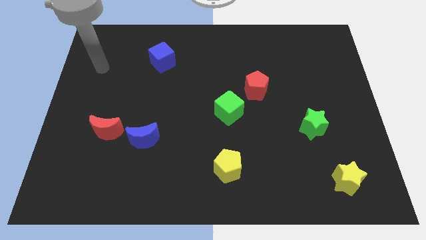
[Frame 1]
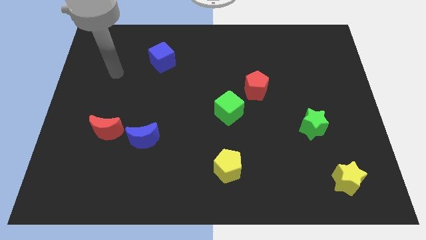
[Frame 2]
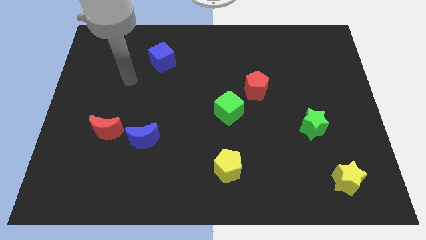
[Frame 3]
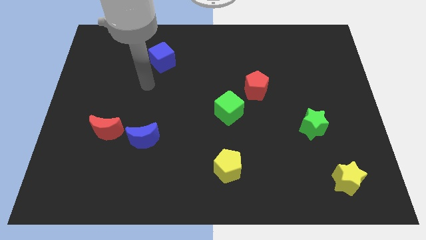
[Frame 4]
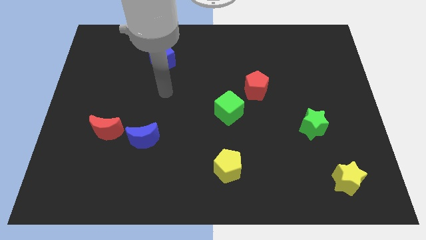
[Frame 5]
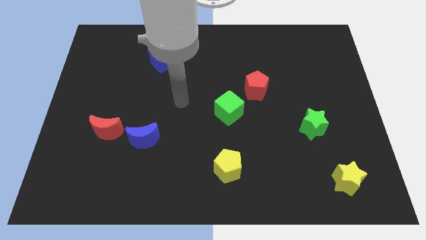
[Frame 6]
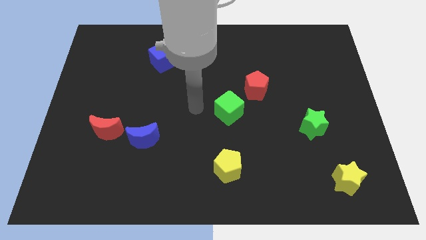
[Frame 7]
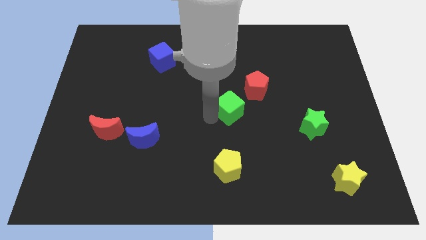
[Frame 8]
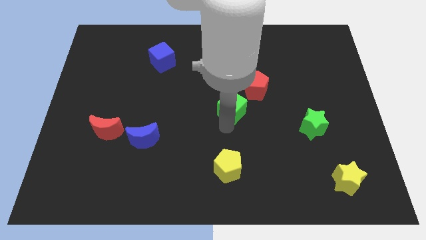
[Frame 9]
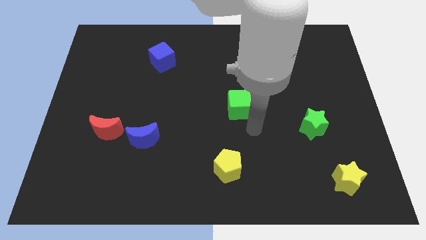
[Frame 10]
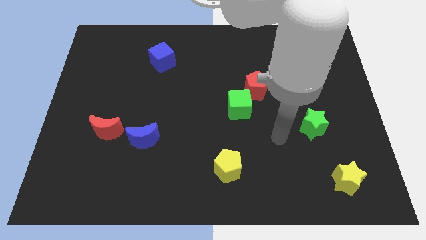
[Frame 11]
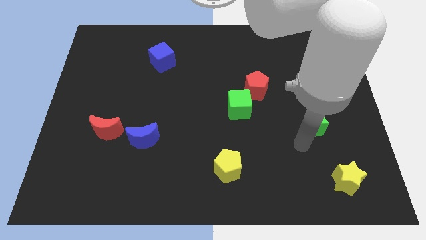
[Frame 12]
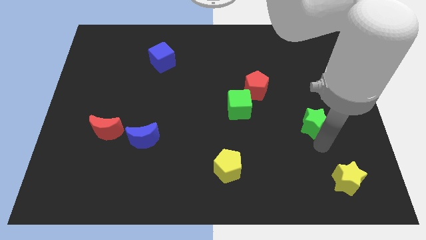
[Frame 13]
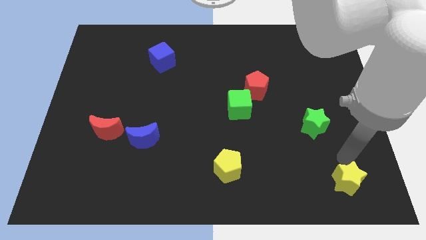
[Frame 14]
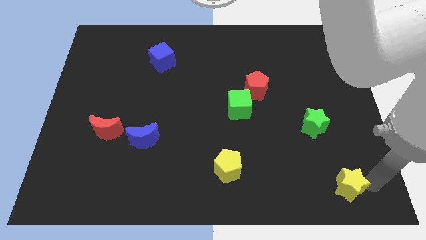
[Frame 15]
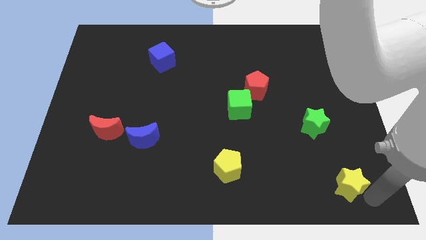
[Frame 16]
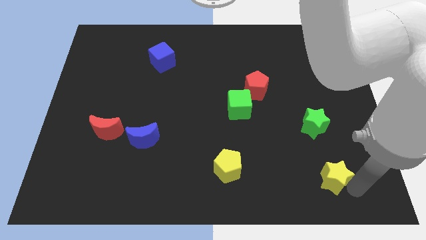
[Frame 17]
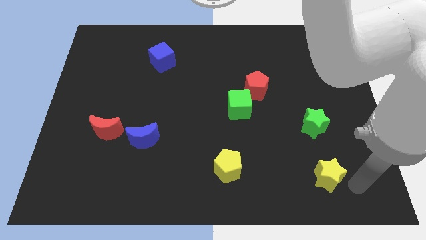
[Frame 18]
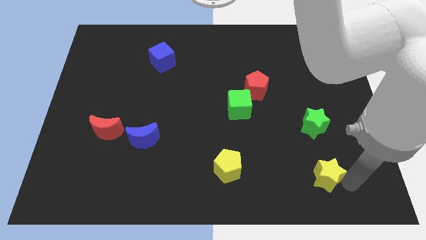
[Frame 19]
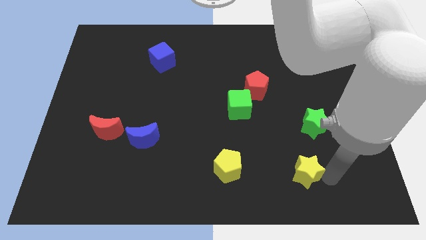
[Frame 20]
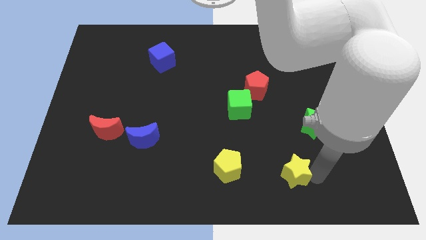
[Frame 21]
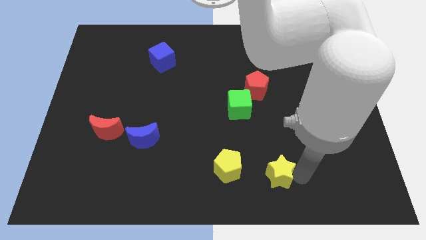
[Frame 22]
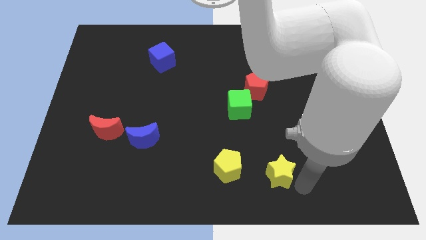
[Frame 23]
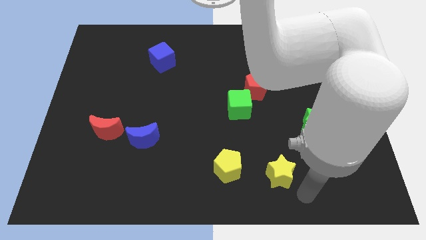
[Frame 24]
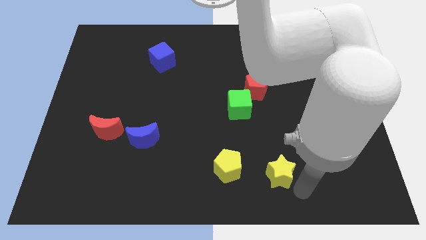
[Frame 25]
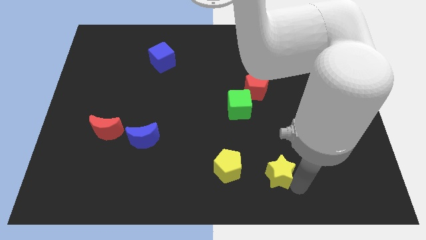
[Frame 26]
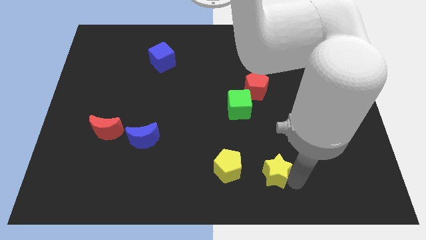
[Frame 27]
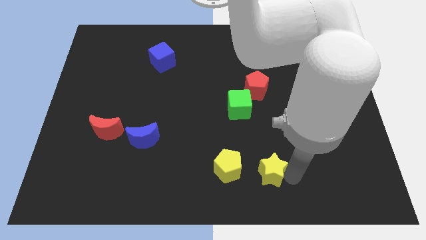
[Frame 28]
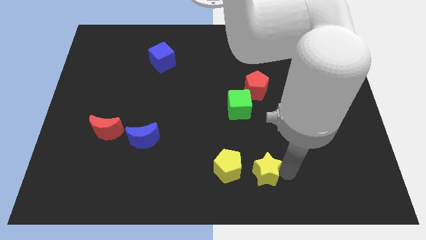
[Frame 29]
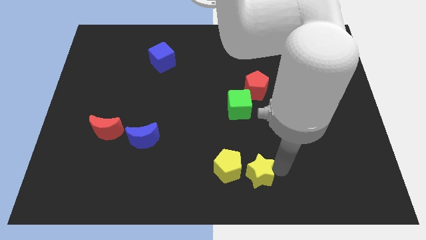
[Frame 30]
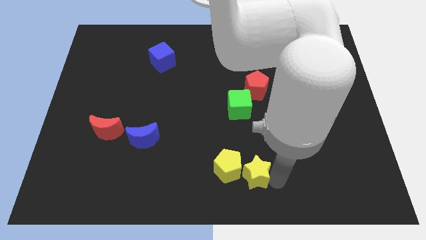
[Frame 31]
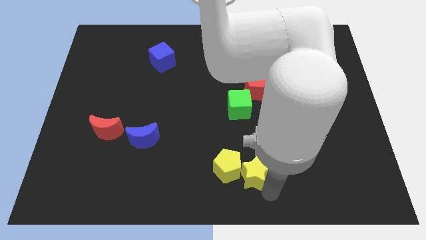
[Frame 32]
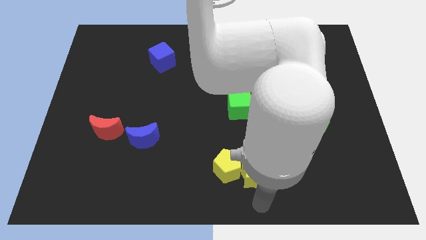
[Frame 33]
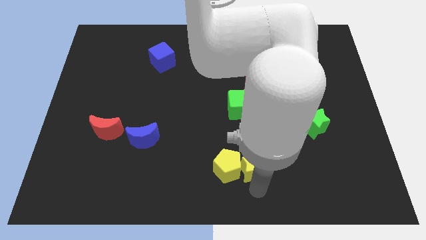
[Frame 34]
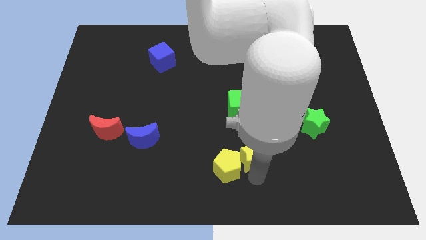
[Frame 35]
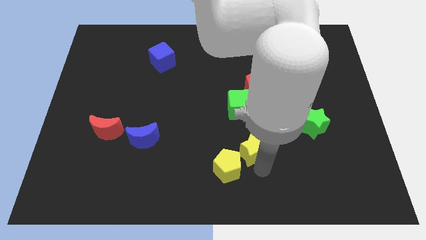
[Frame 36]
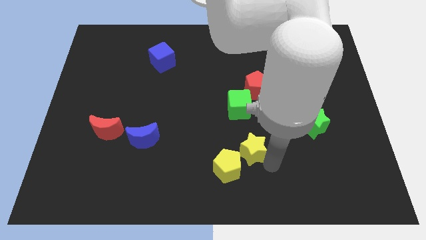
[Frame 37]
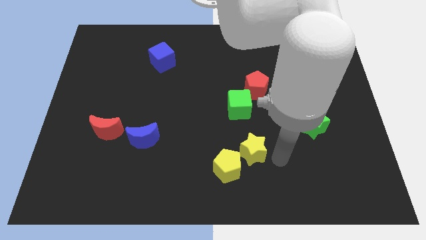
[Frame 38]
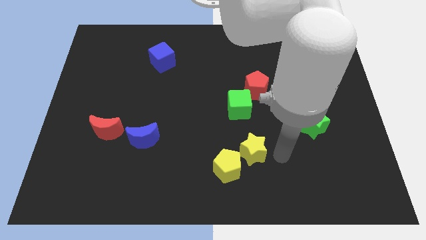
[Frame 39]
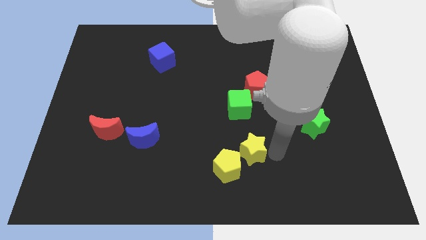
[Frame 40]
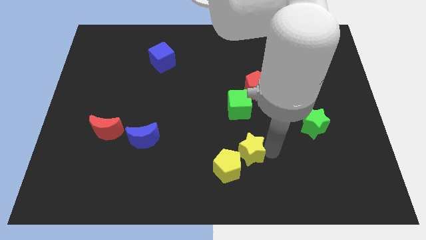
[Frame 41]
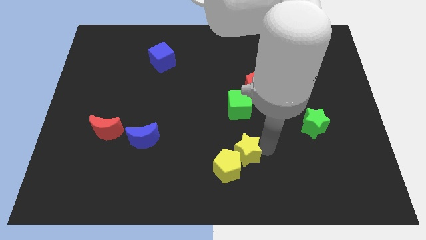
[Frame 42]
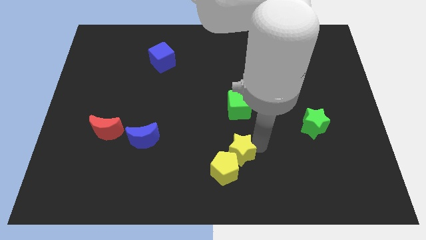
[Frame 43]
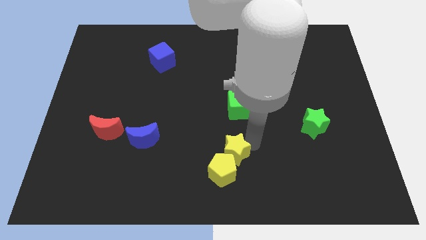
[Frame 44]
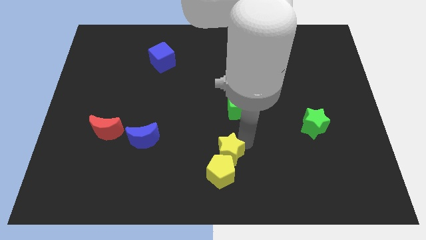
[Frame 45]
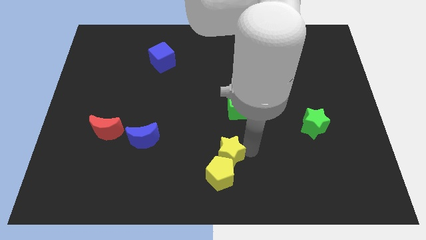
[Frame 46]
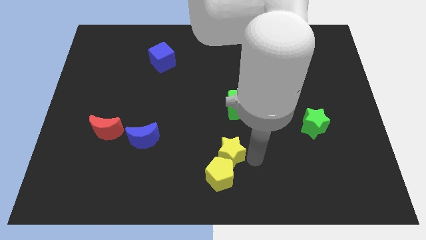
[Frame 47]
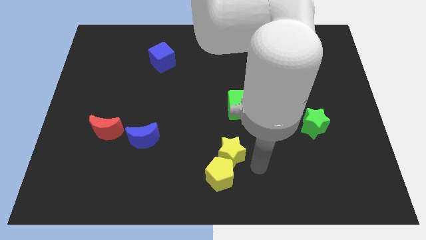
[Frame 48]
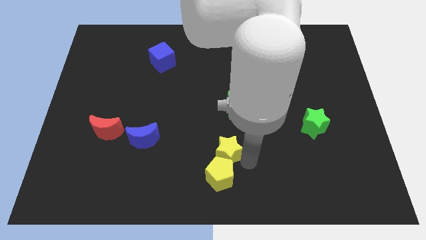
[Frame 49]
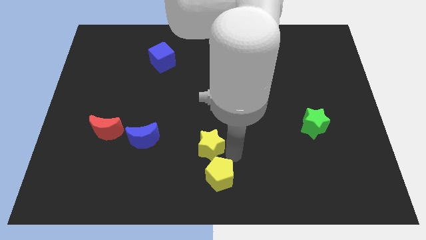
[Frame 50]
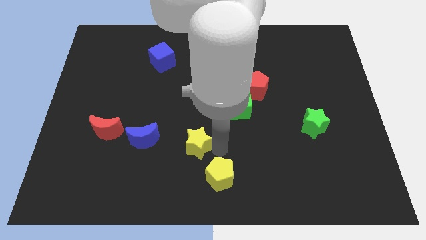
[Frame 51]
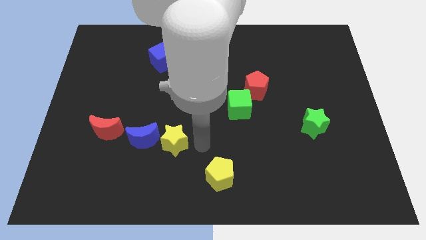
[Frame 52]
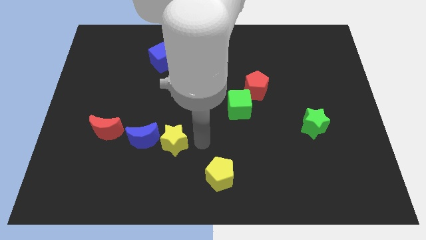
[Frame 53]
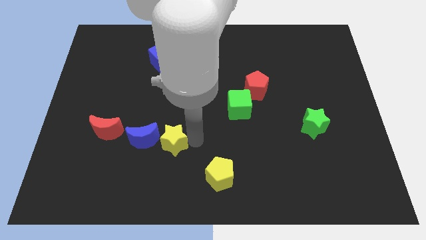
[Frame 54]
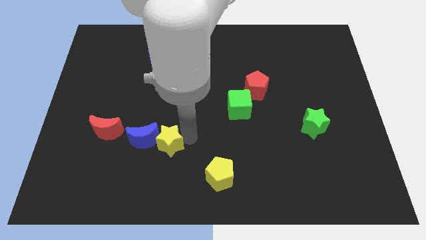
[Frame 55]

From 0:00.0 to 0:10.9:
push the yellow star next to the blue moon

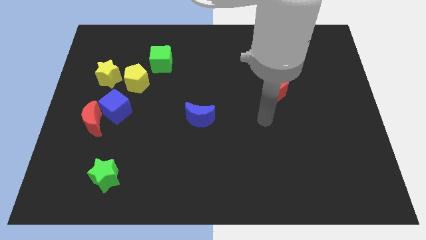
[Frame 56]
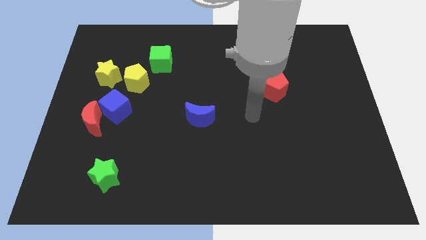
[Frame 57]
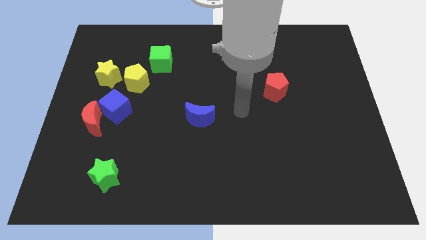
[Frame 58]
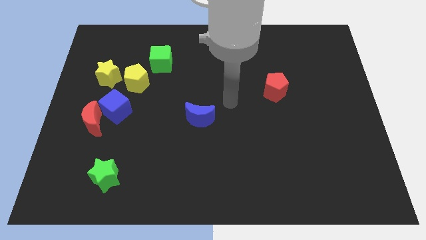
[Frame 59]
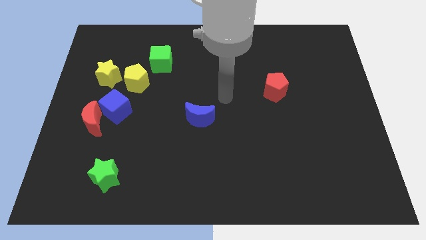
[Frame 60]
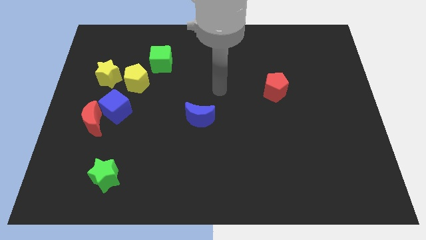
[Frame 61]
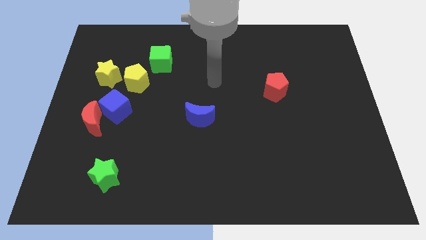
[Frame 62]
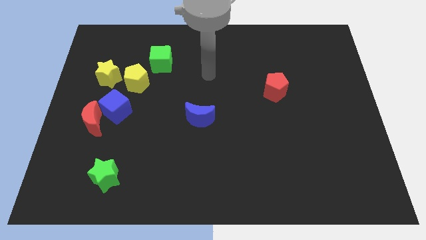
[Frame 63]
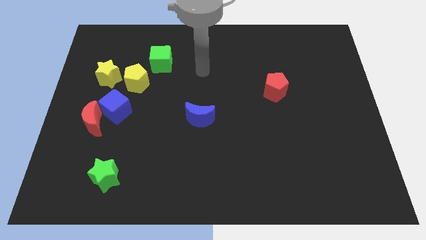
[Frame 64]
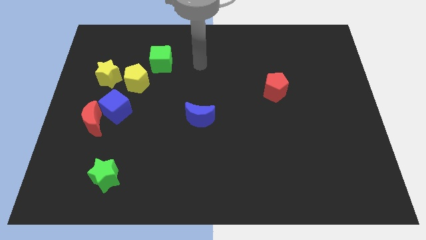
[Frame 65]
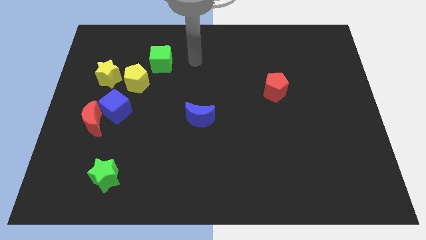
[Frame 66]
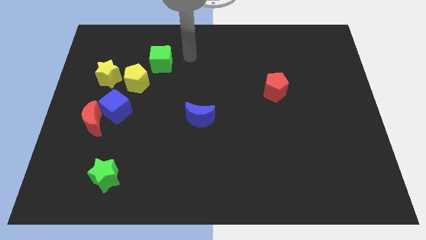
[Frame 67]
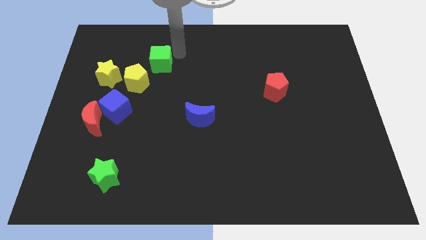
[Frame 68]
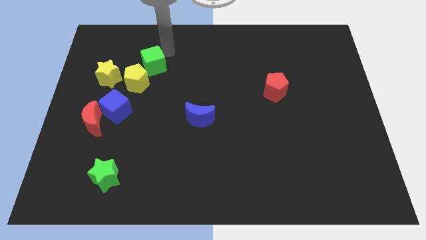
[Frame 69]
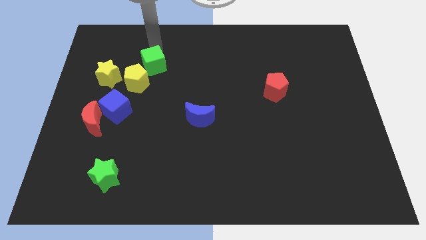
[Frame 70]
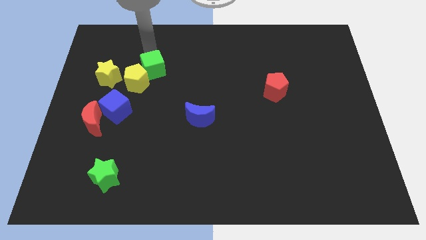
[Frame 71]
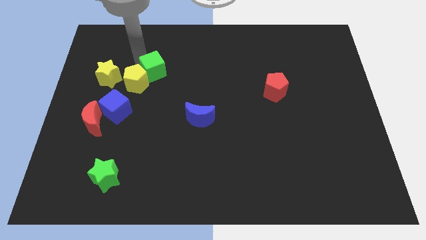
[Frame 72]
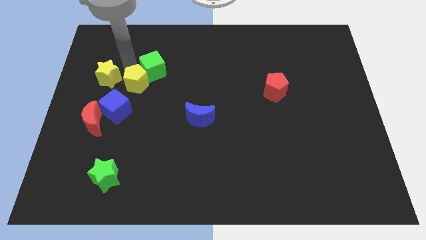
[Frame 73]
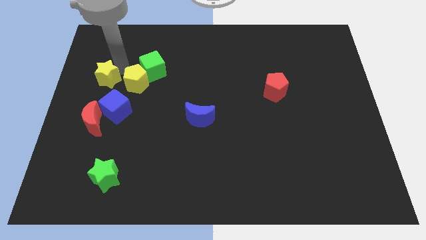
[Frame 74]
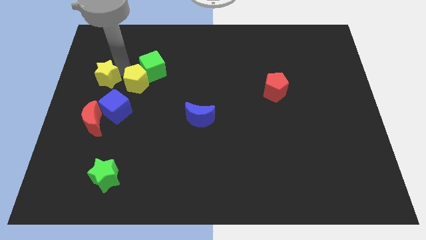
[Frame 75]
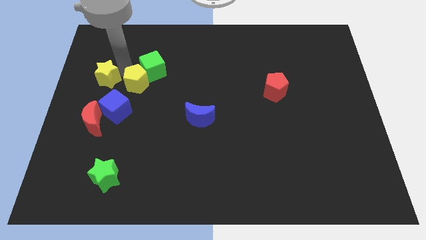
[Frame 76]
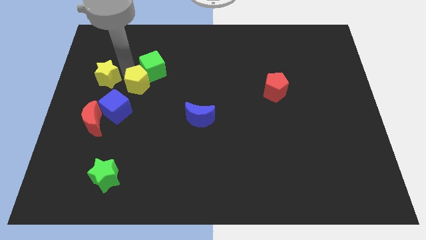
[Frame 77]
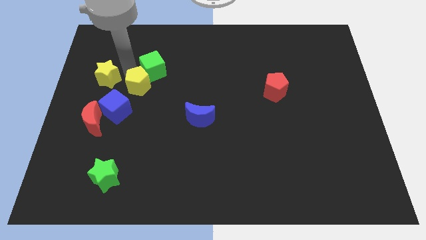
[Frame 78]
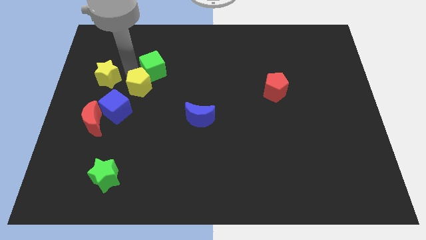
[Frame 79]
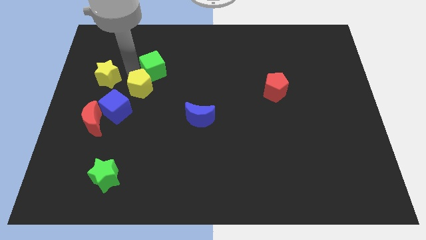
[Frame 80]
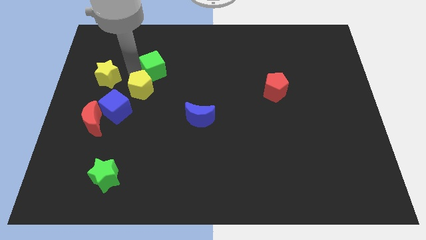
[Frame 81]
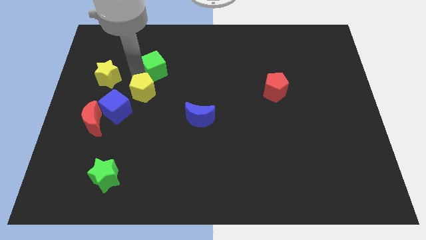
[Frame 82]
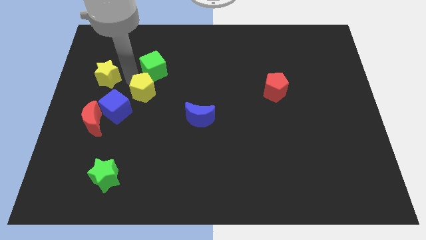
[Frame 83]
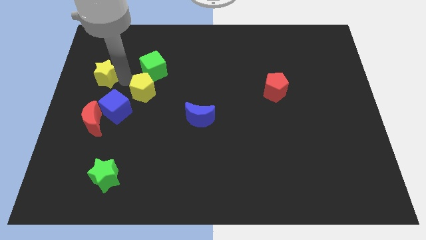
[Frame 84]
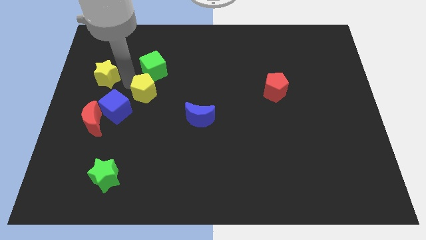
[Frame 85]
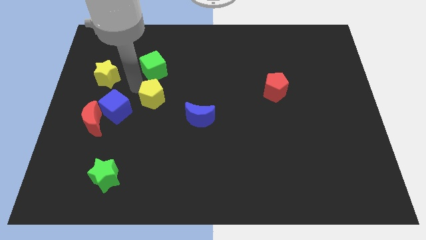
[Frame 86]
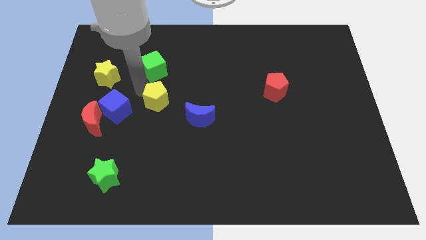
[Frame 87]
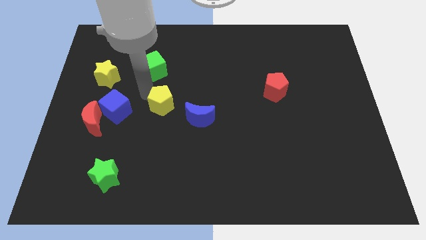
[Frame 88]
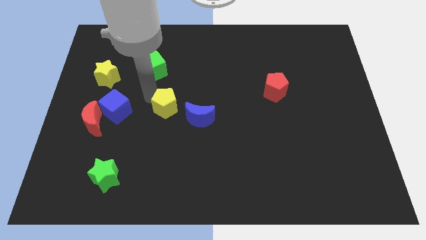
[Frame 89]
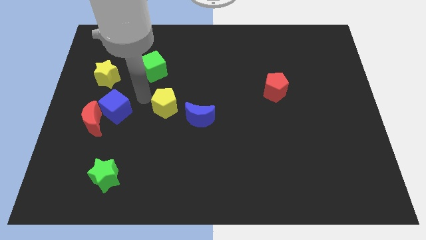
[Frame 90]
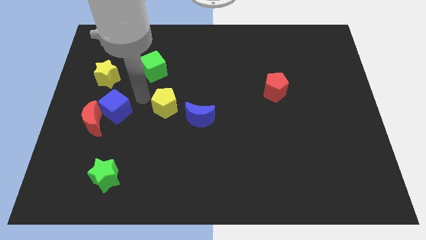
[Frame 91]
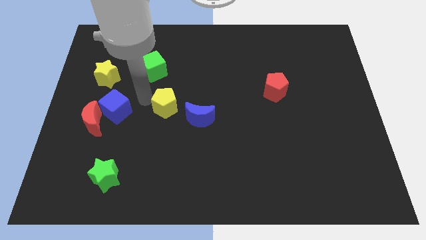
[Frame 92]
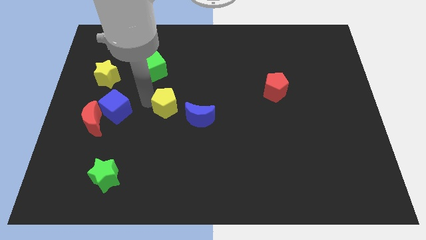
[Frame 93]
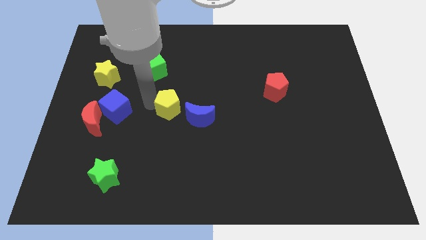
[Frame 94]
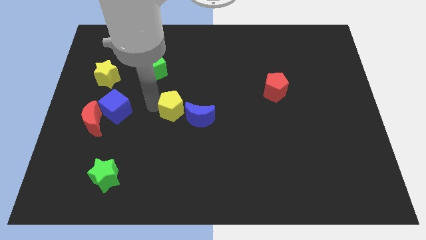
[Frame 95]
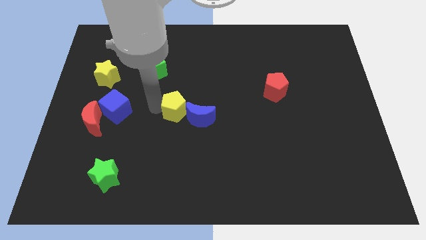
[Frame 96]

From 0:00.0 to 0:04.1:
slide the yellow pentagon next to the blue moon
